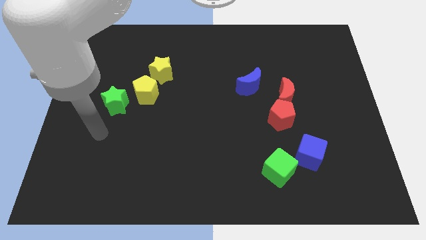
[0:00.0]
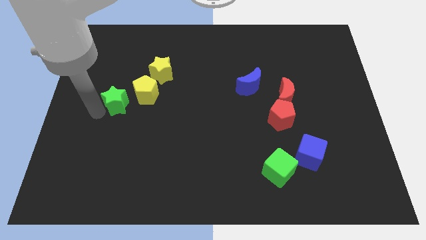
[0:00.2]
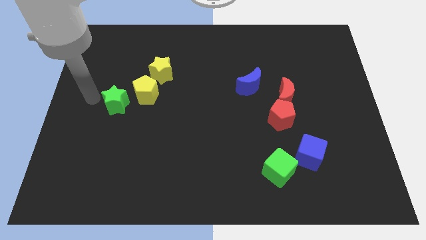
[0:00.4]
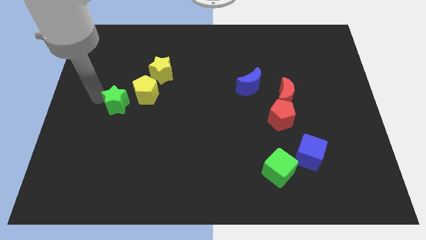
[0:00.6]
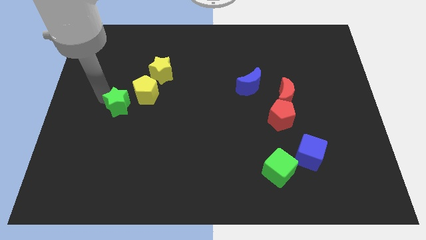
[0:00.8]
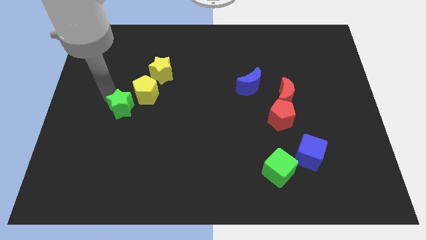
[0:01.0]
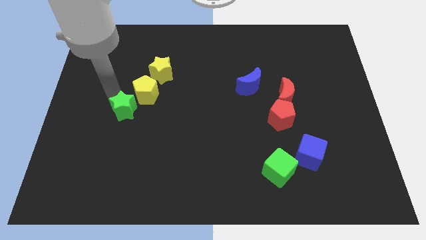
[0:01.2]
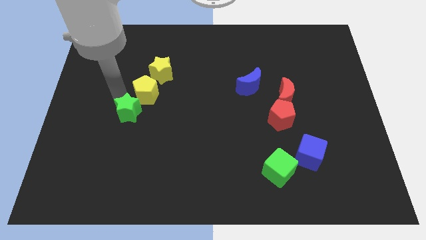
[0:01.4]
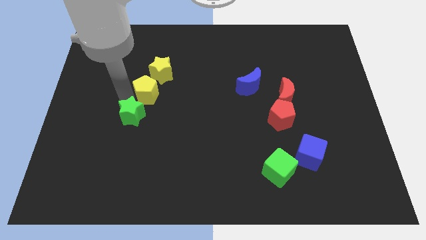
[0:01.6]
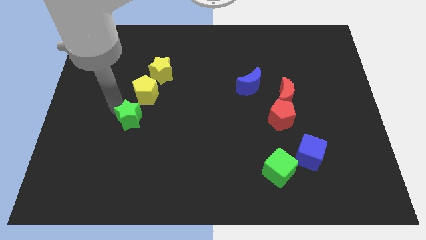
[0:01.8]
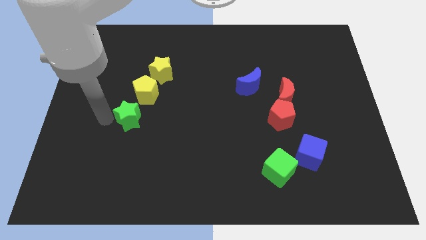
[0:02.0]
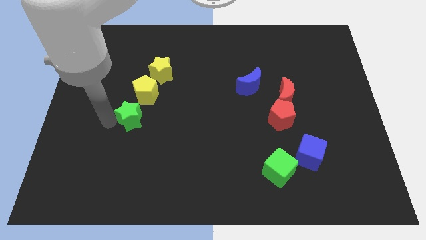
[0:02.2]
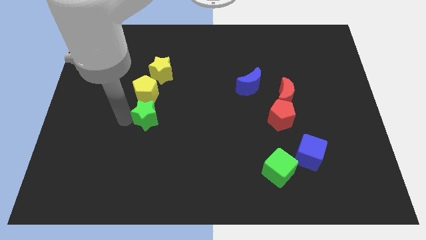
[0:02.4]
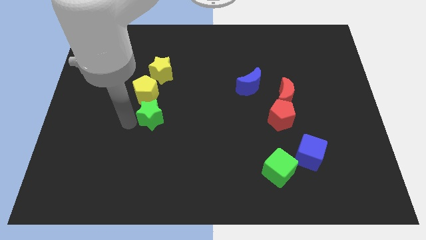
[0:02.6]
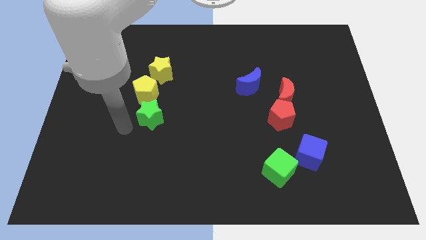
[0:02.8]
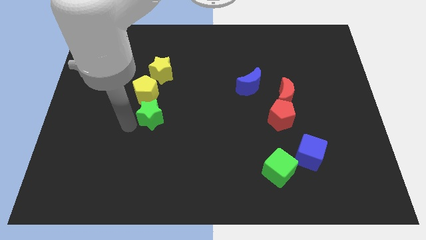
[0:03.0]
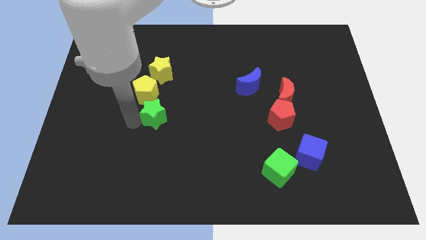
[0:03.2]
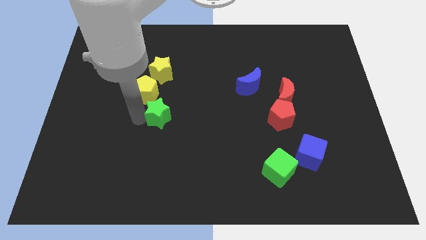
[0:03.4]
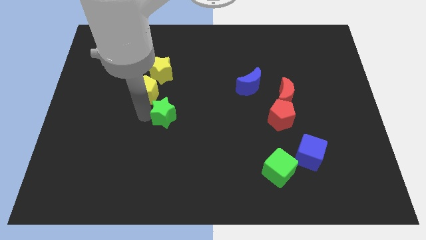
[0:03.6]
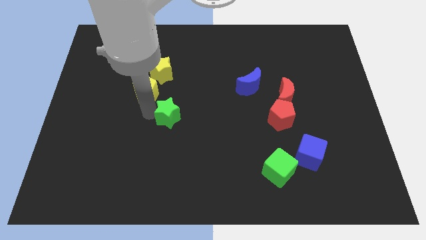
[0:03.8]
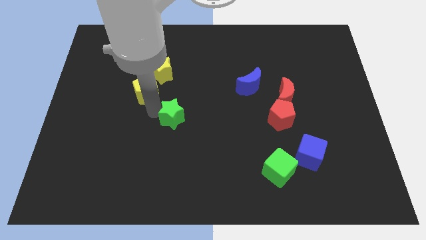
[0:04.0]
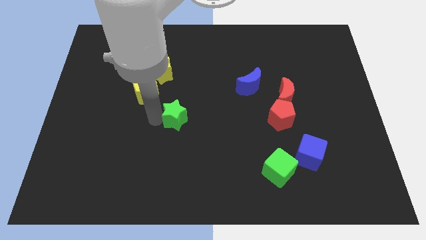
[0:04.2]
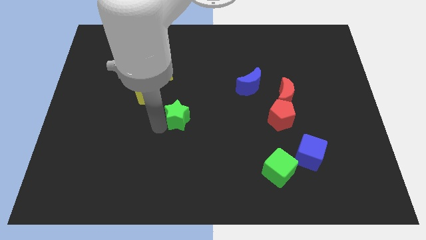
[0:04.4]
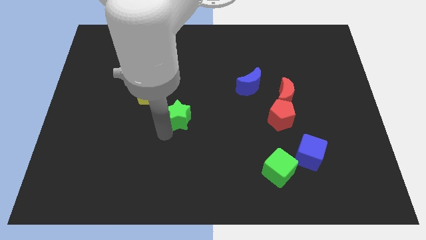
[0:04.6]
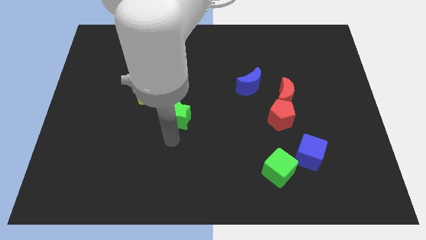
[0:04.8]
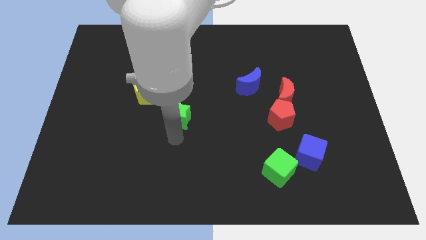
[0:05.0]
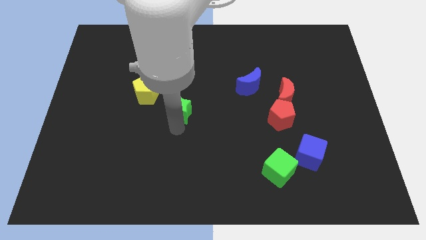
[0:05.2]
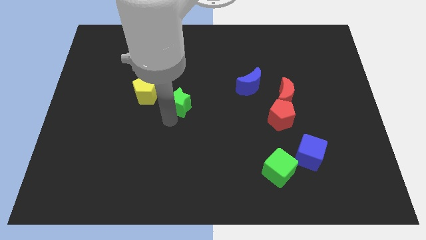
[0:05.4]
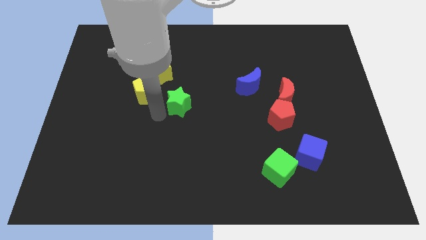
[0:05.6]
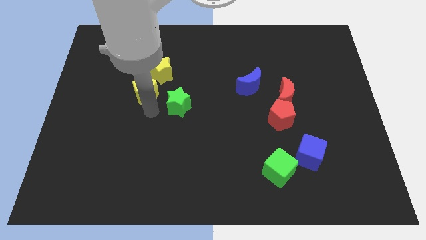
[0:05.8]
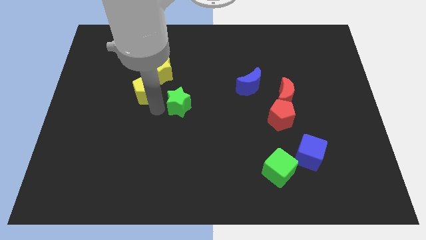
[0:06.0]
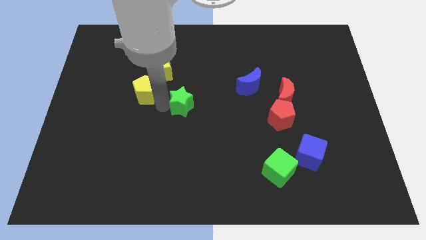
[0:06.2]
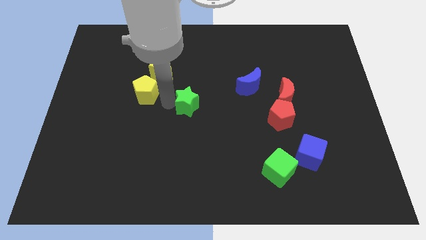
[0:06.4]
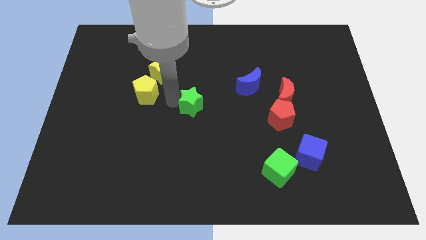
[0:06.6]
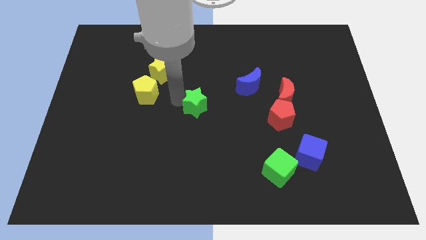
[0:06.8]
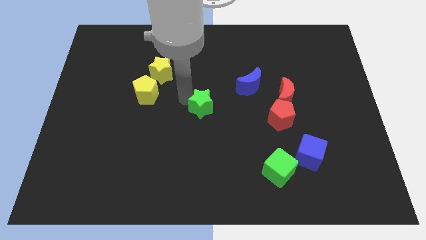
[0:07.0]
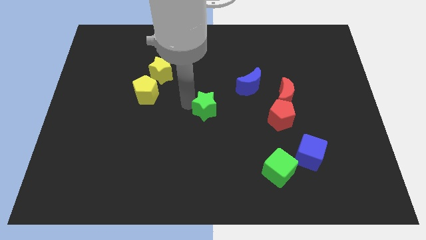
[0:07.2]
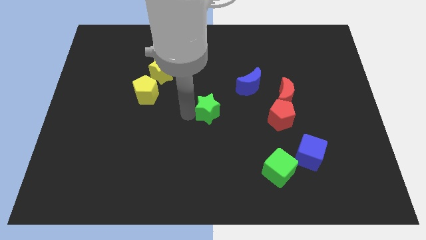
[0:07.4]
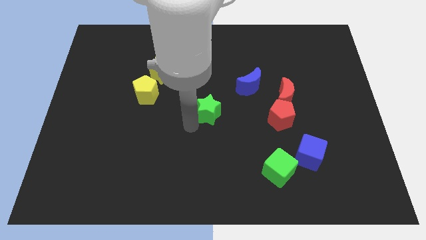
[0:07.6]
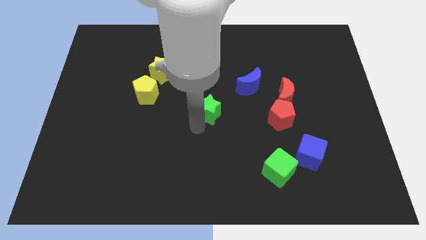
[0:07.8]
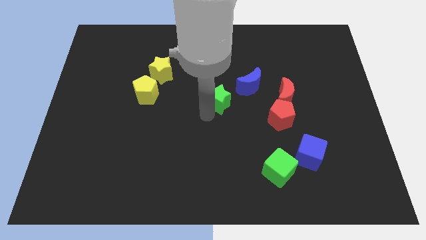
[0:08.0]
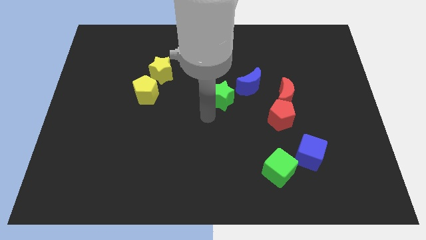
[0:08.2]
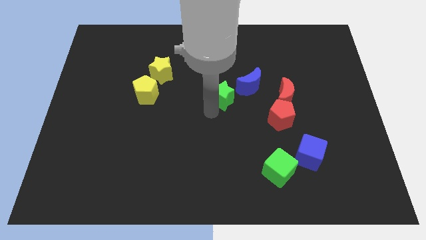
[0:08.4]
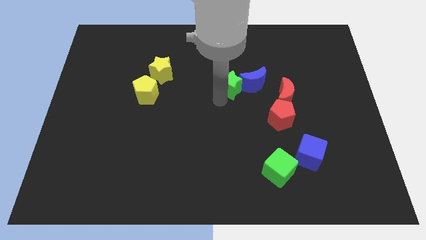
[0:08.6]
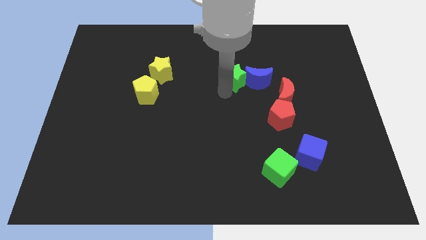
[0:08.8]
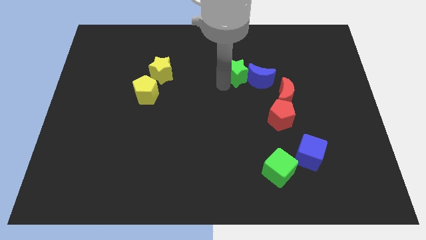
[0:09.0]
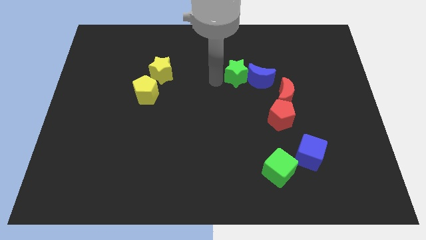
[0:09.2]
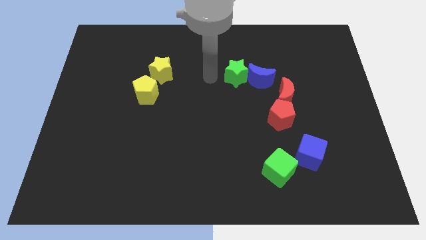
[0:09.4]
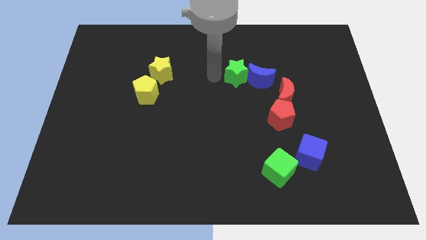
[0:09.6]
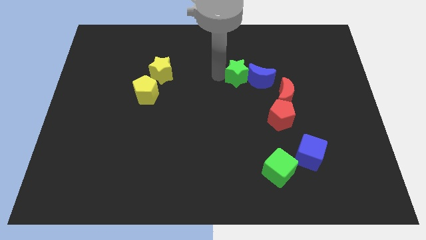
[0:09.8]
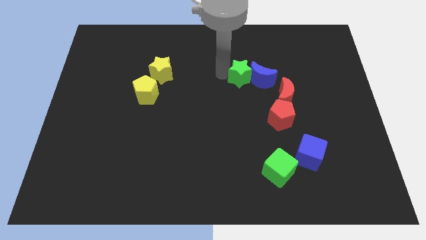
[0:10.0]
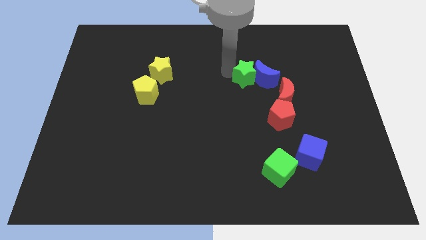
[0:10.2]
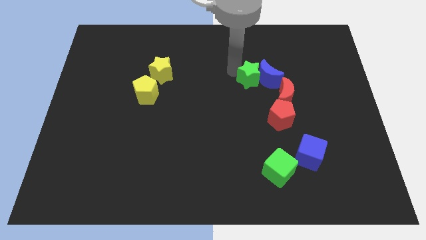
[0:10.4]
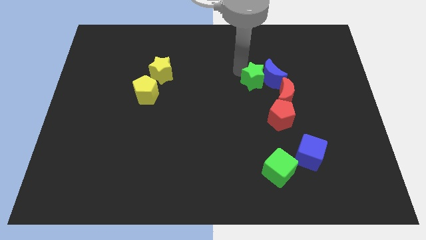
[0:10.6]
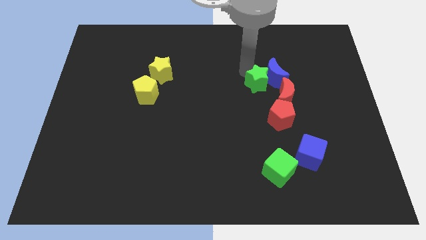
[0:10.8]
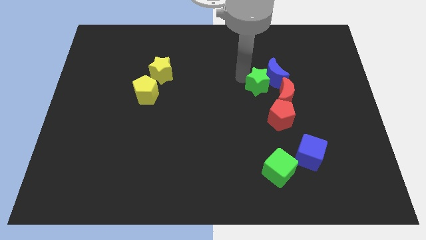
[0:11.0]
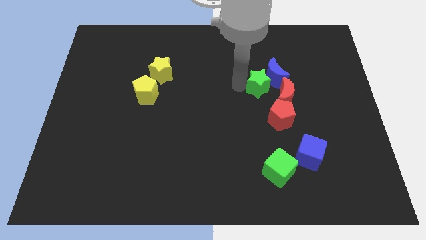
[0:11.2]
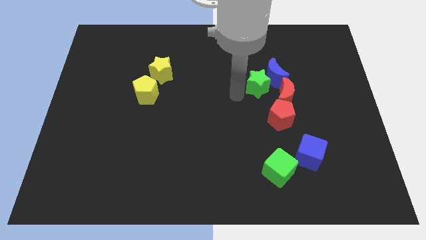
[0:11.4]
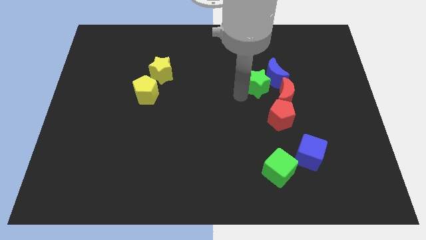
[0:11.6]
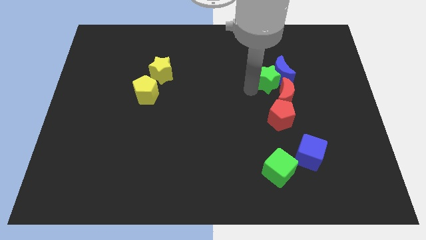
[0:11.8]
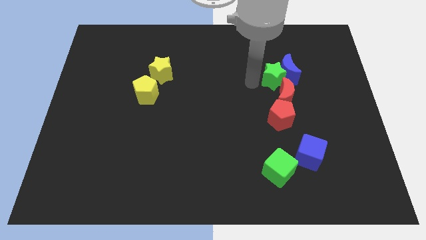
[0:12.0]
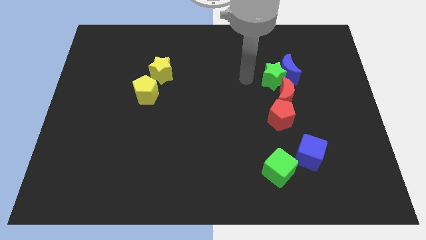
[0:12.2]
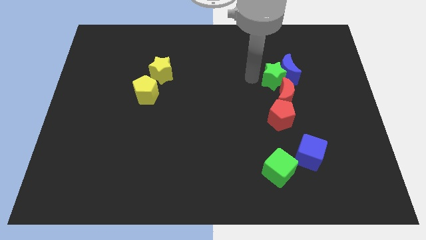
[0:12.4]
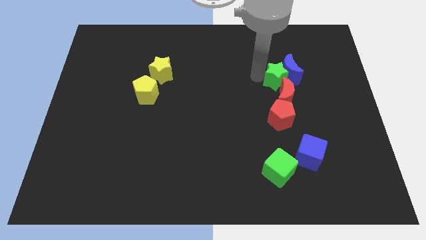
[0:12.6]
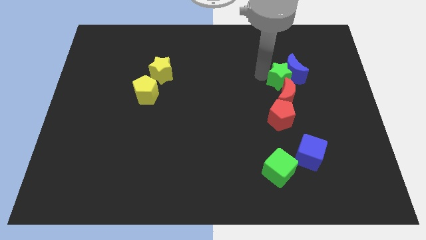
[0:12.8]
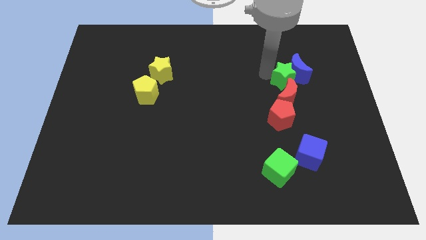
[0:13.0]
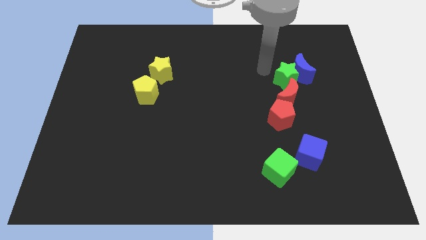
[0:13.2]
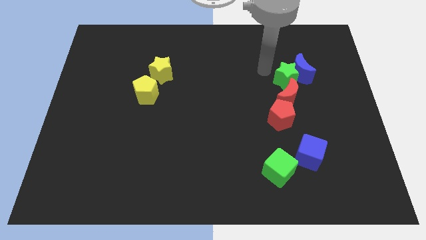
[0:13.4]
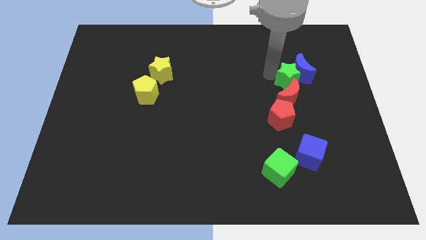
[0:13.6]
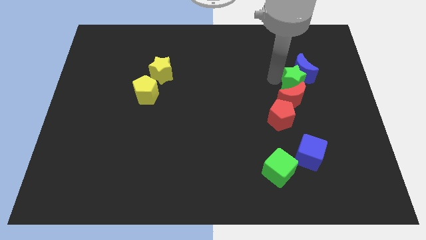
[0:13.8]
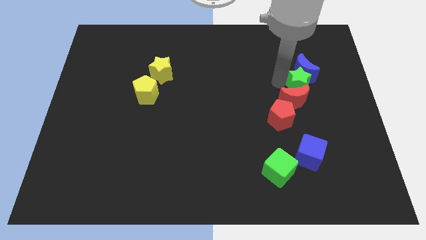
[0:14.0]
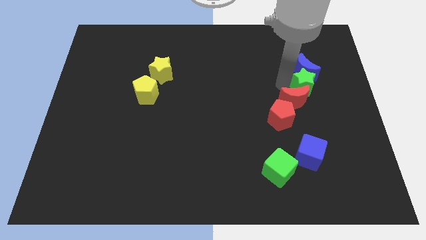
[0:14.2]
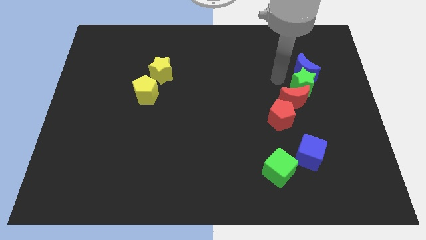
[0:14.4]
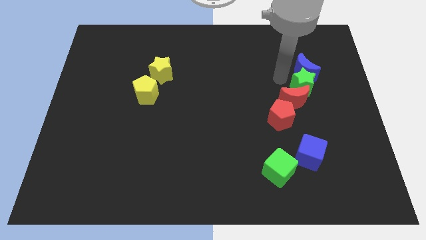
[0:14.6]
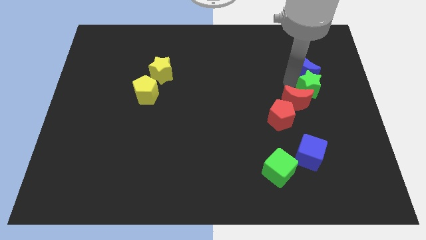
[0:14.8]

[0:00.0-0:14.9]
put the green star right of the red moon
